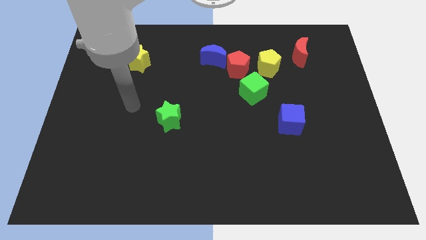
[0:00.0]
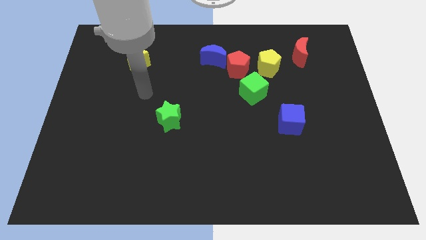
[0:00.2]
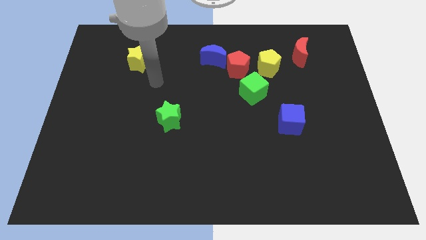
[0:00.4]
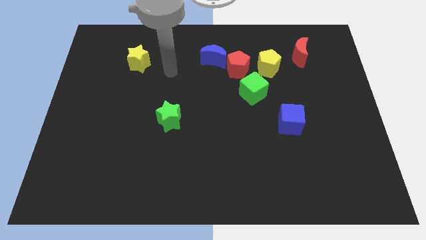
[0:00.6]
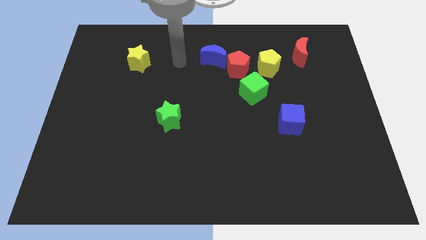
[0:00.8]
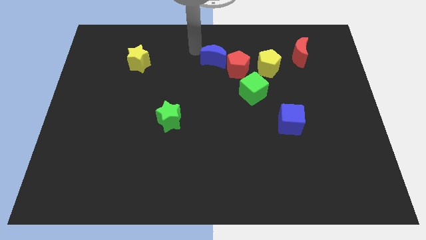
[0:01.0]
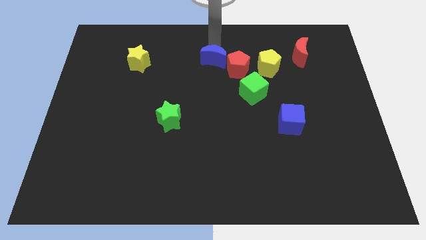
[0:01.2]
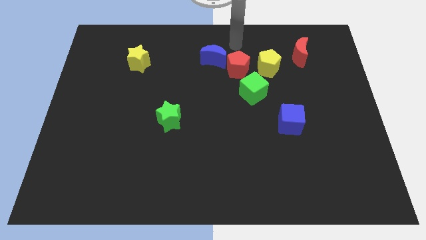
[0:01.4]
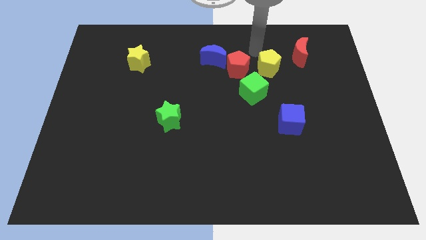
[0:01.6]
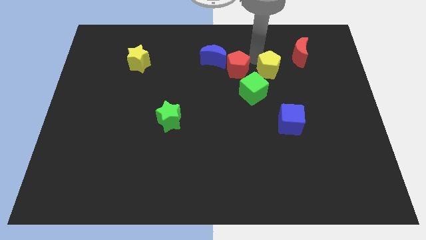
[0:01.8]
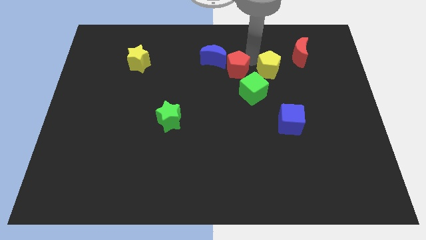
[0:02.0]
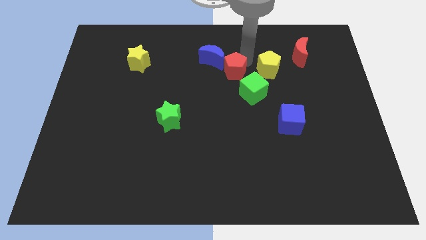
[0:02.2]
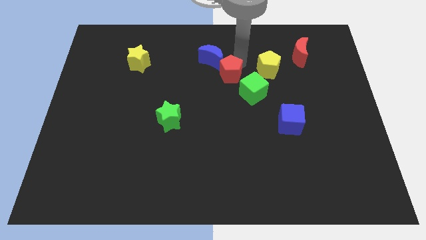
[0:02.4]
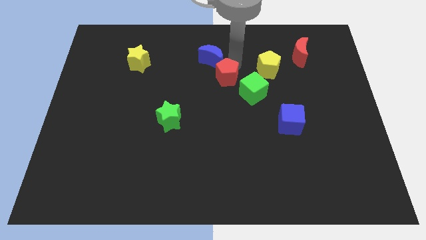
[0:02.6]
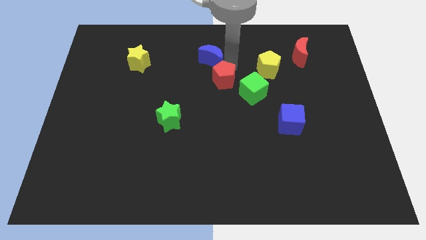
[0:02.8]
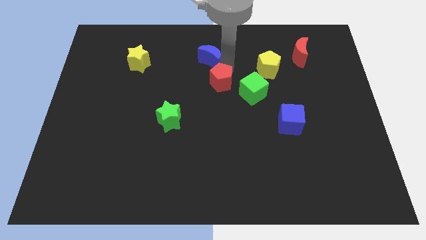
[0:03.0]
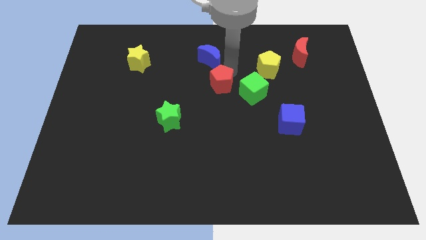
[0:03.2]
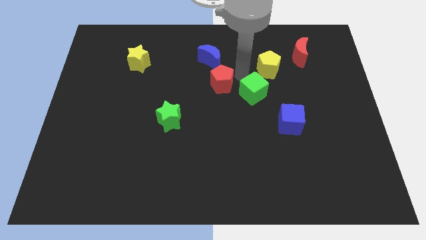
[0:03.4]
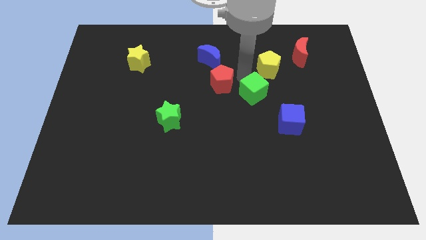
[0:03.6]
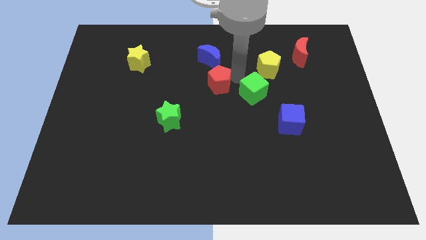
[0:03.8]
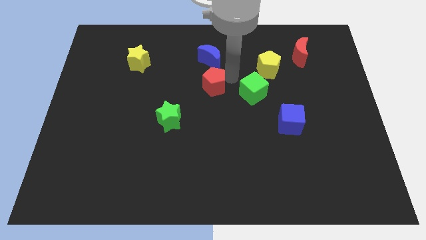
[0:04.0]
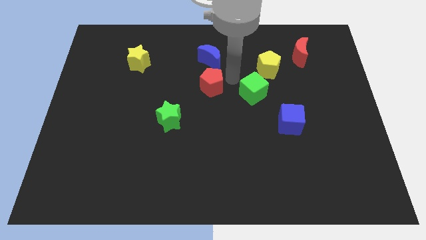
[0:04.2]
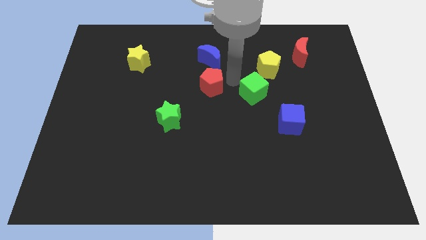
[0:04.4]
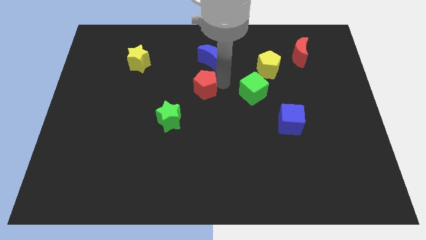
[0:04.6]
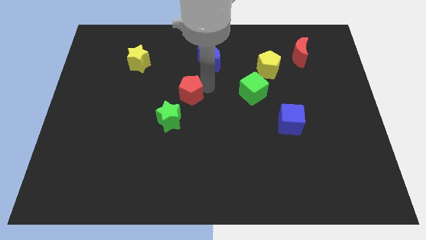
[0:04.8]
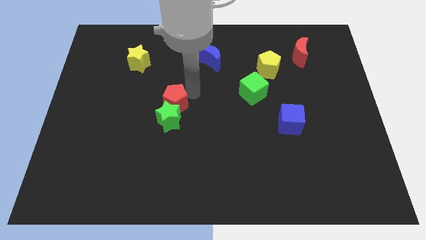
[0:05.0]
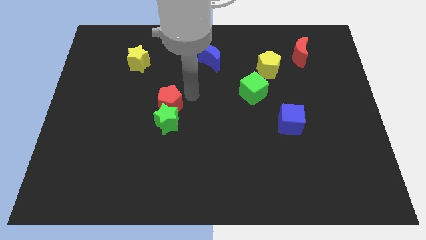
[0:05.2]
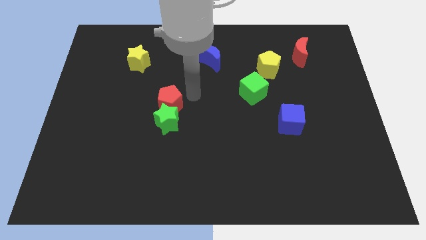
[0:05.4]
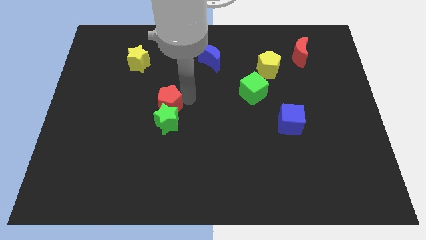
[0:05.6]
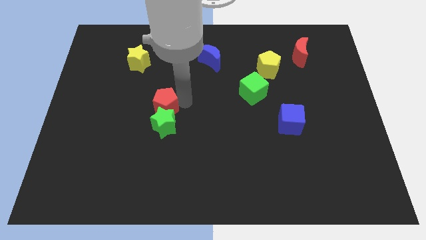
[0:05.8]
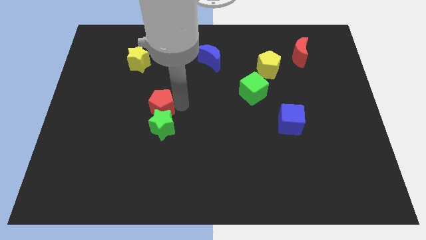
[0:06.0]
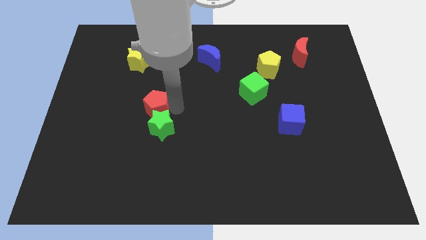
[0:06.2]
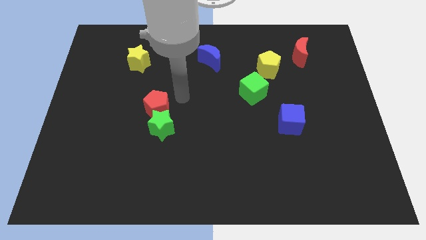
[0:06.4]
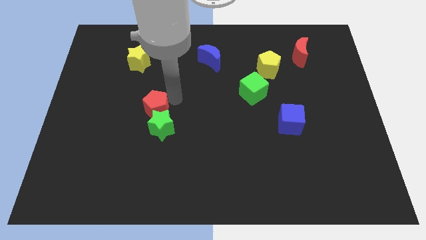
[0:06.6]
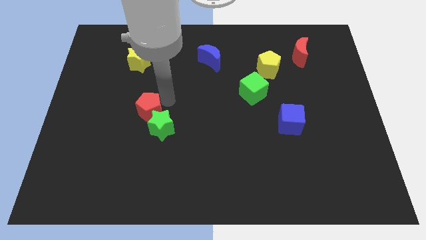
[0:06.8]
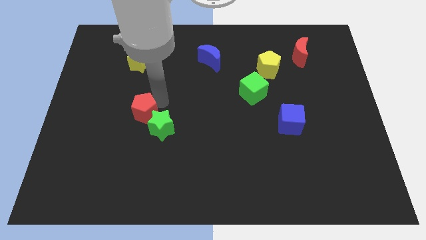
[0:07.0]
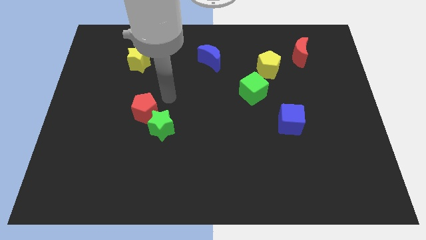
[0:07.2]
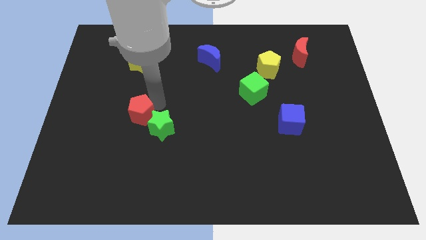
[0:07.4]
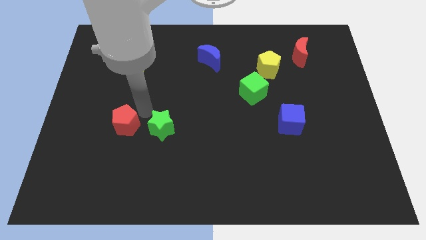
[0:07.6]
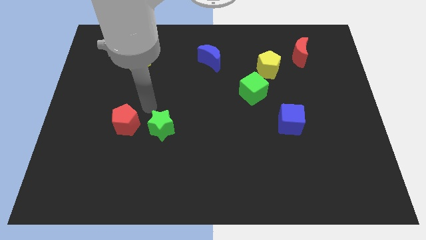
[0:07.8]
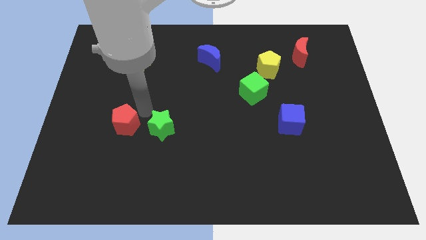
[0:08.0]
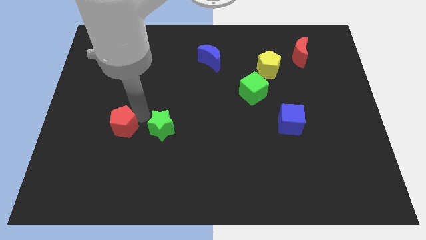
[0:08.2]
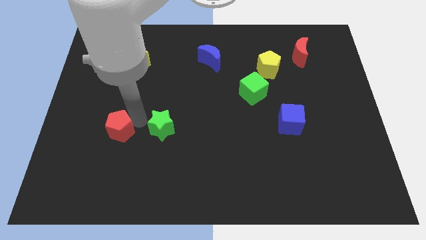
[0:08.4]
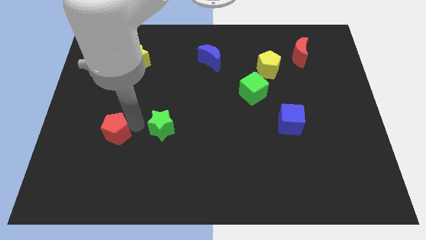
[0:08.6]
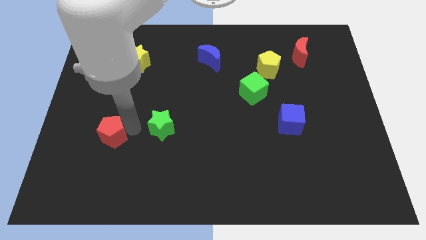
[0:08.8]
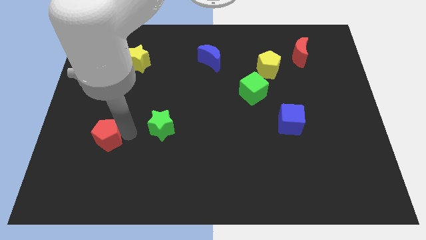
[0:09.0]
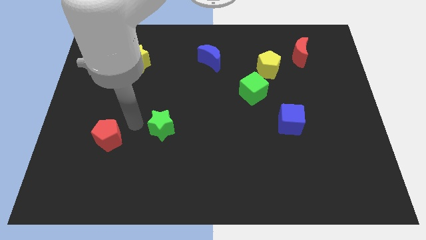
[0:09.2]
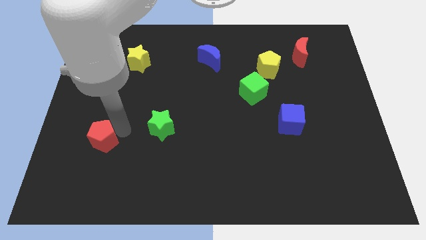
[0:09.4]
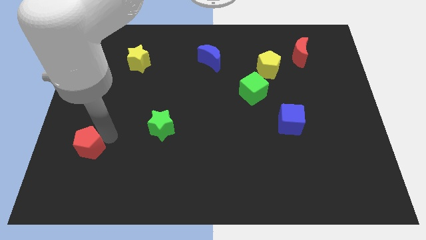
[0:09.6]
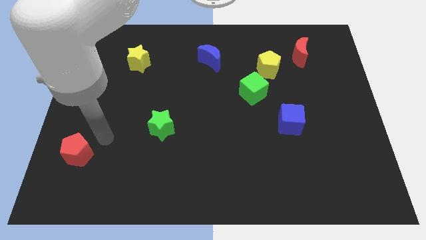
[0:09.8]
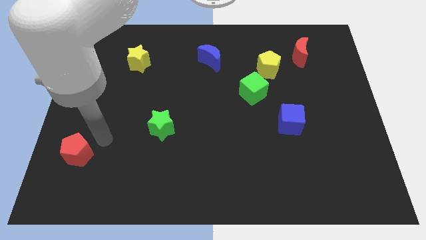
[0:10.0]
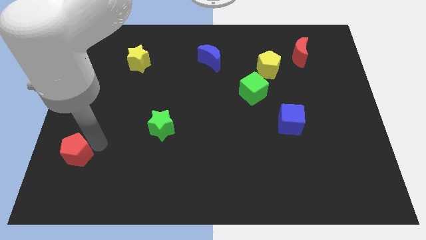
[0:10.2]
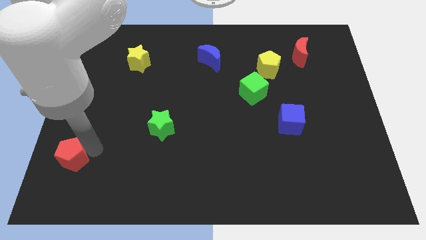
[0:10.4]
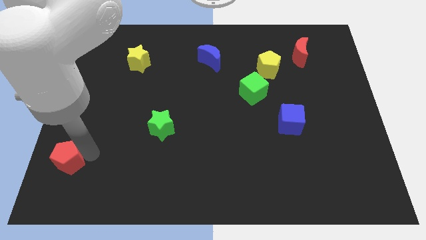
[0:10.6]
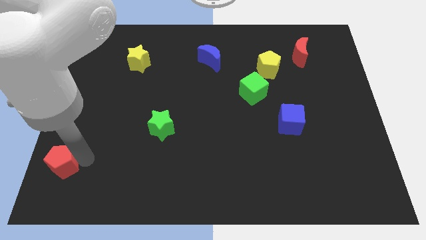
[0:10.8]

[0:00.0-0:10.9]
push the red pentagon to the bottom left corner

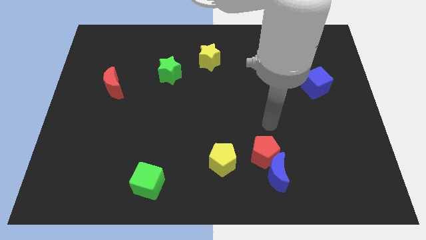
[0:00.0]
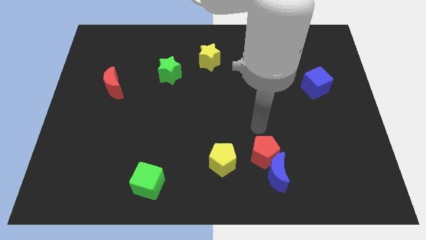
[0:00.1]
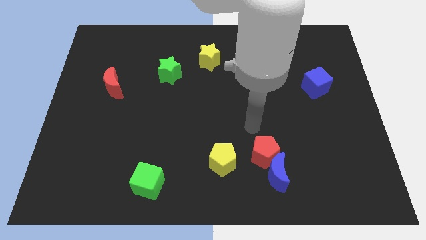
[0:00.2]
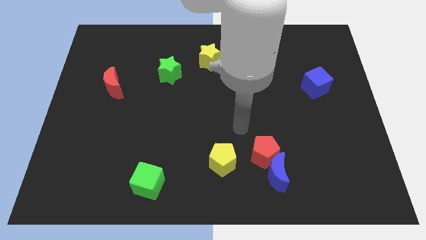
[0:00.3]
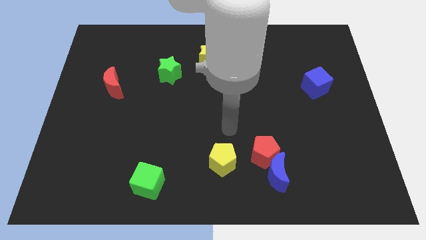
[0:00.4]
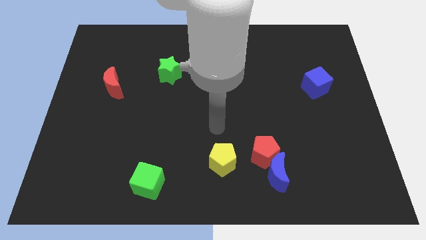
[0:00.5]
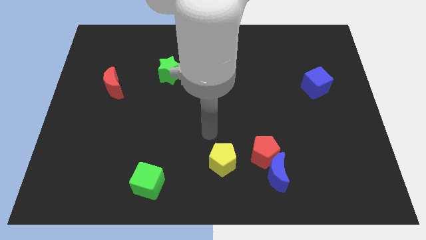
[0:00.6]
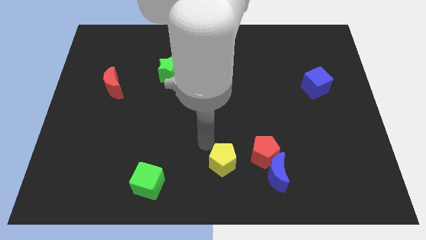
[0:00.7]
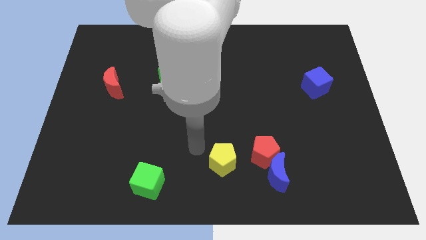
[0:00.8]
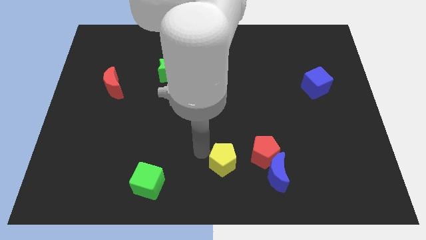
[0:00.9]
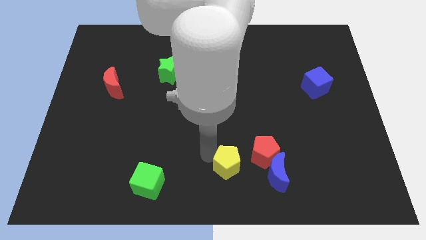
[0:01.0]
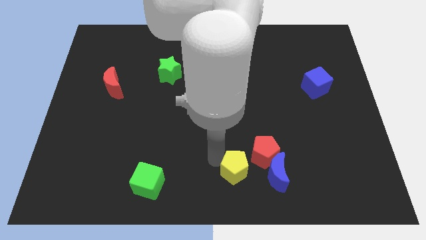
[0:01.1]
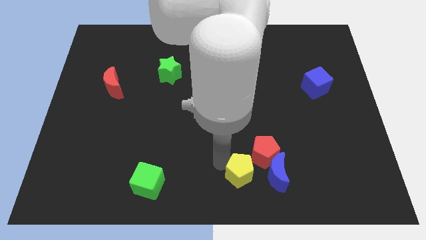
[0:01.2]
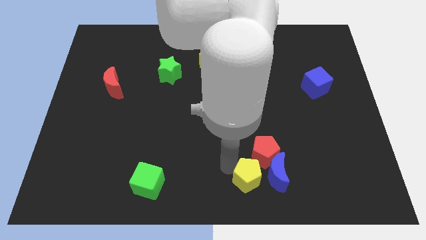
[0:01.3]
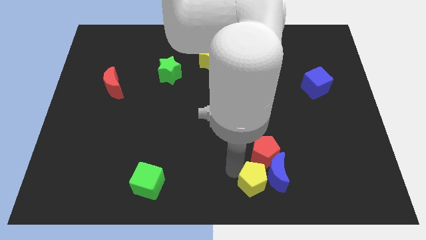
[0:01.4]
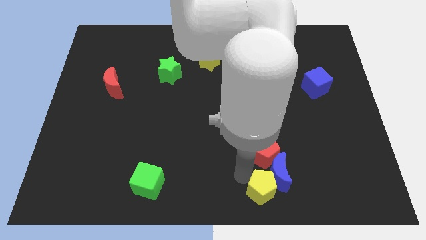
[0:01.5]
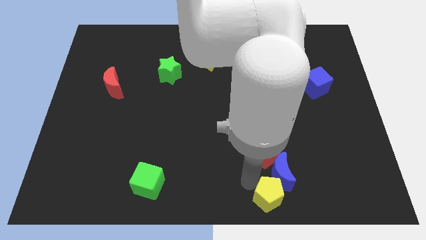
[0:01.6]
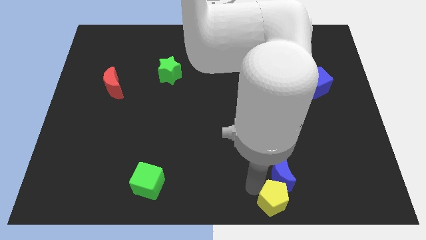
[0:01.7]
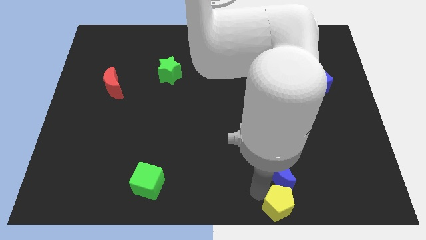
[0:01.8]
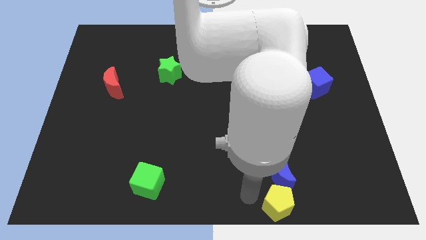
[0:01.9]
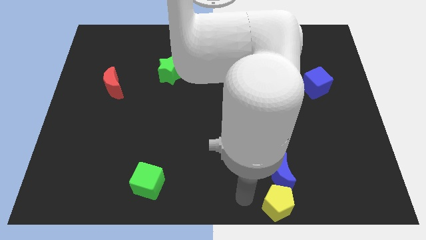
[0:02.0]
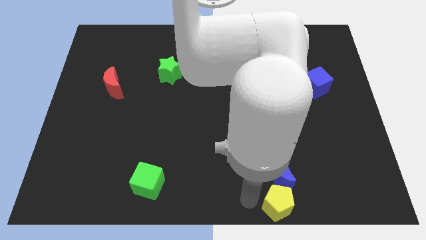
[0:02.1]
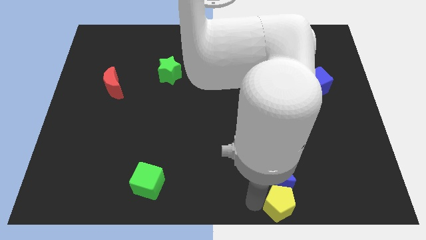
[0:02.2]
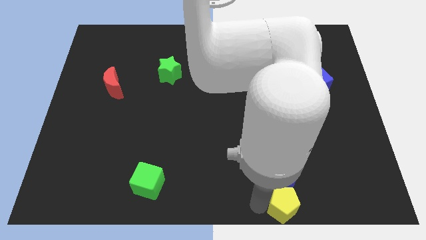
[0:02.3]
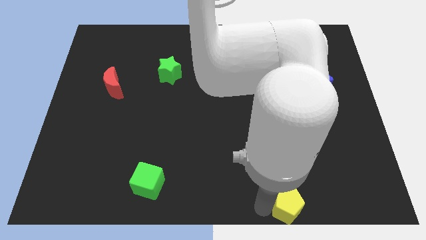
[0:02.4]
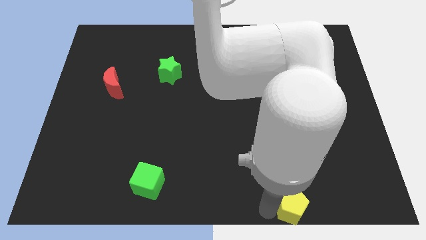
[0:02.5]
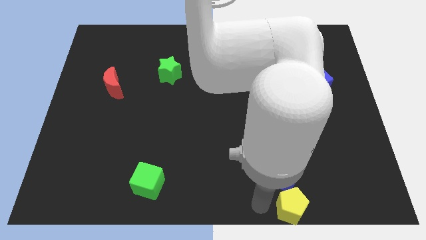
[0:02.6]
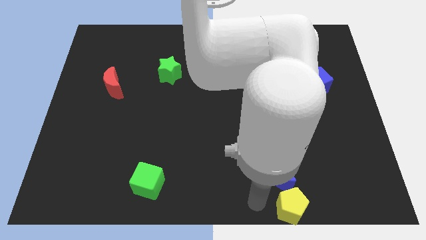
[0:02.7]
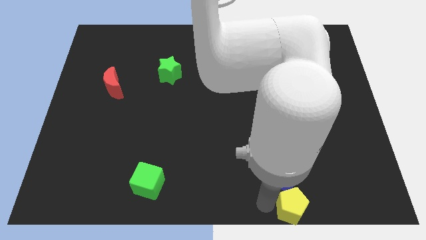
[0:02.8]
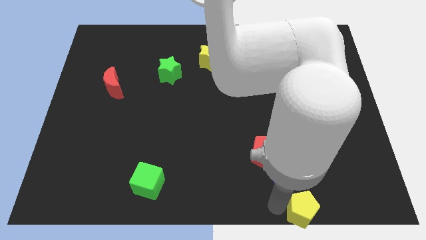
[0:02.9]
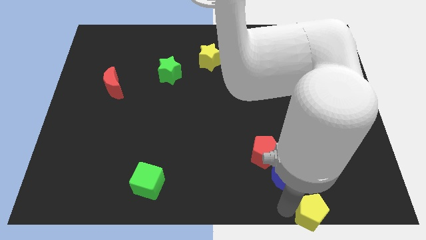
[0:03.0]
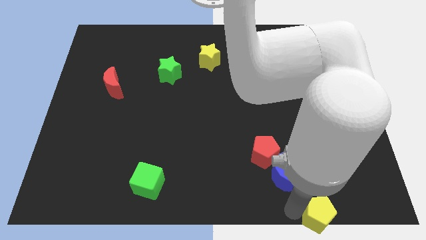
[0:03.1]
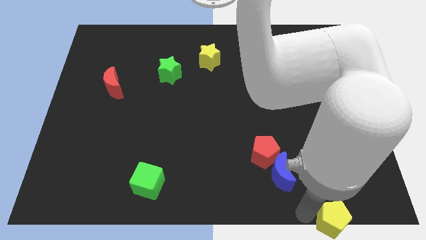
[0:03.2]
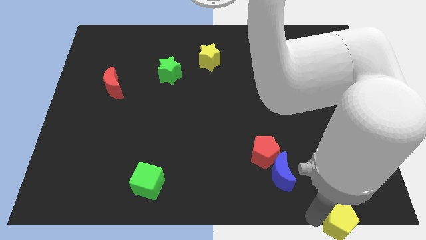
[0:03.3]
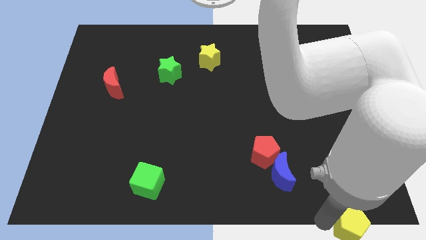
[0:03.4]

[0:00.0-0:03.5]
put the yellow pentagon to the bottom right of the board
